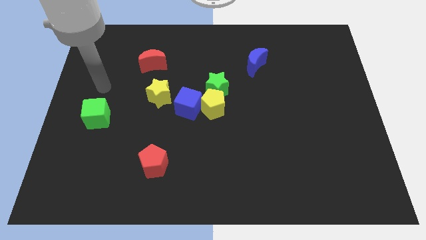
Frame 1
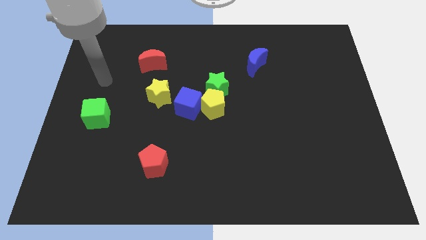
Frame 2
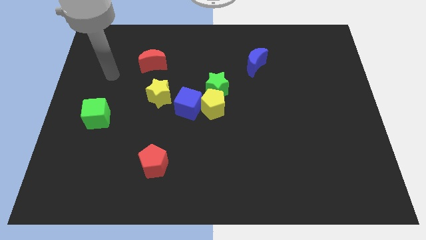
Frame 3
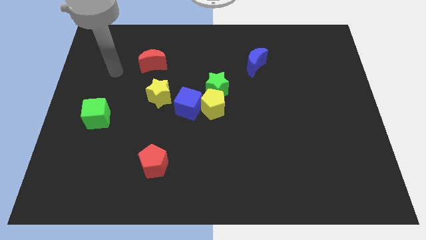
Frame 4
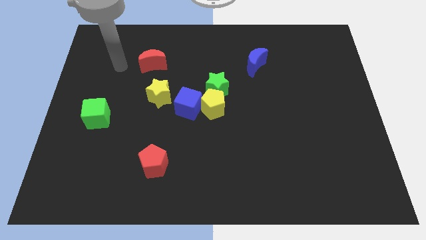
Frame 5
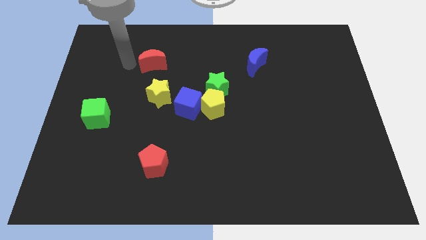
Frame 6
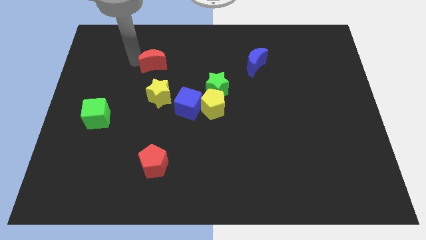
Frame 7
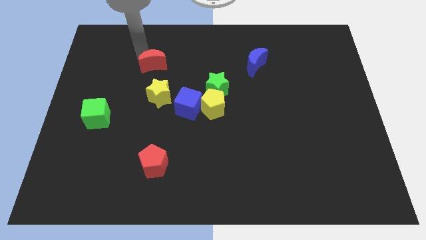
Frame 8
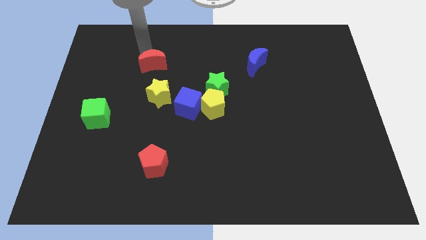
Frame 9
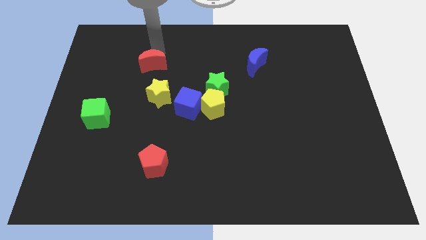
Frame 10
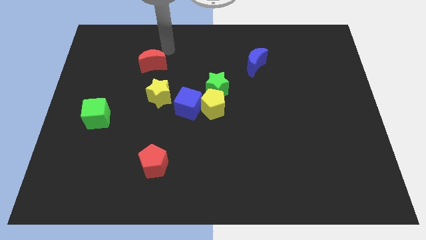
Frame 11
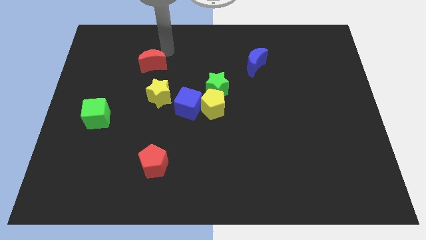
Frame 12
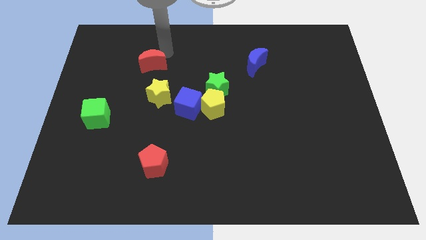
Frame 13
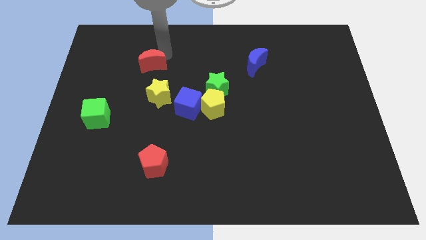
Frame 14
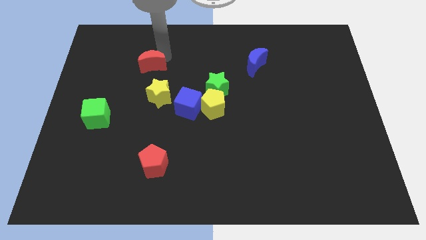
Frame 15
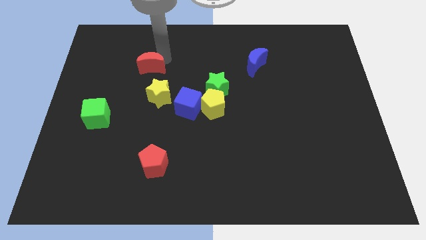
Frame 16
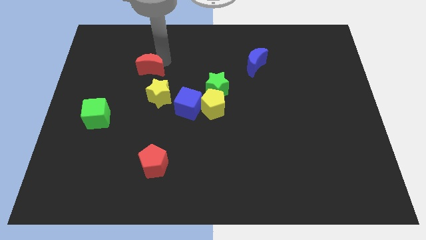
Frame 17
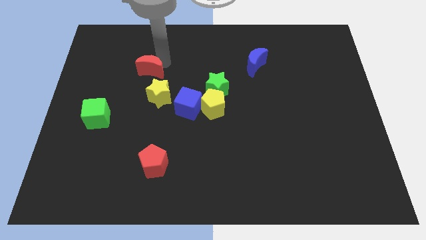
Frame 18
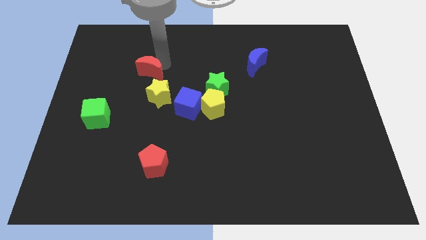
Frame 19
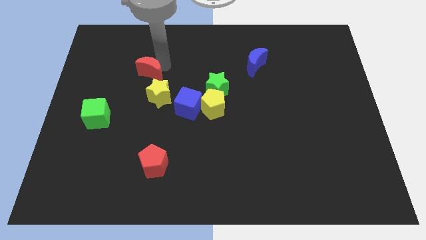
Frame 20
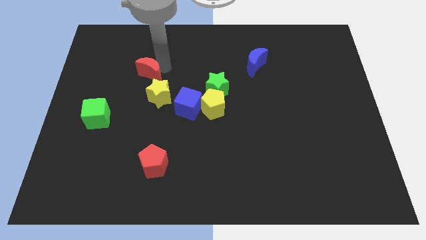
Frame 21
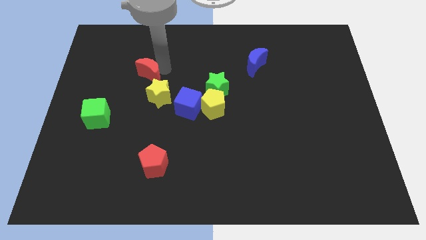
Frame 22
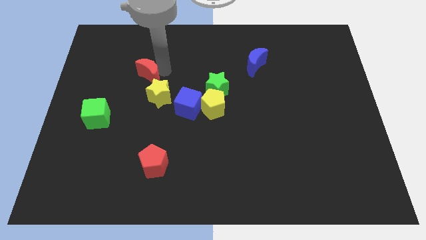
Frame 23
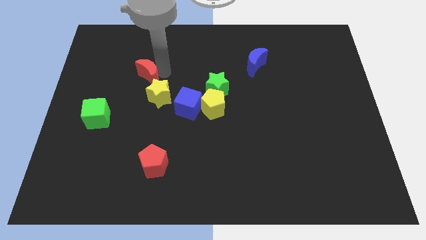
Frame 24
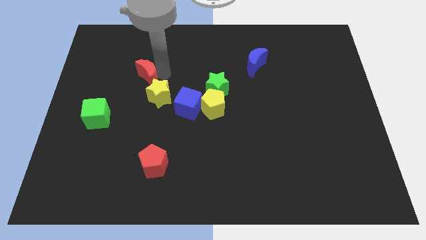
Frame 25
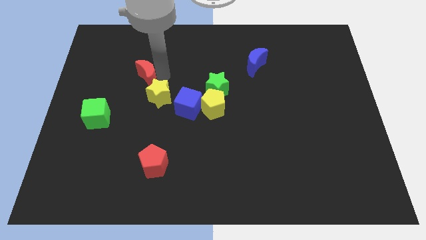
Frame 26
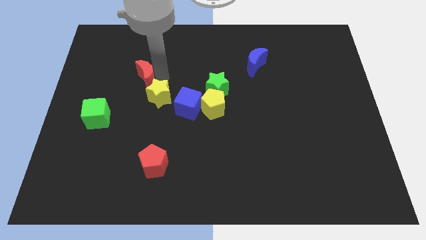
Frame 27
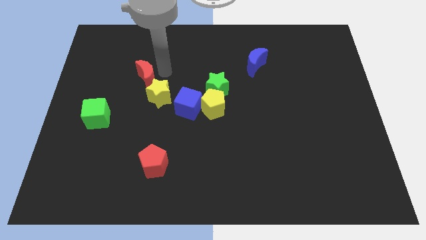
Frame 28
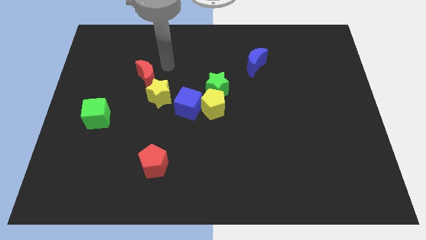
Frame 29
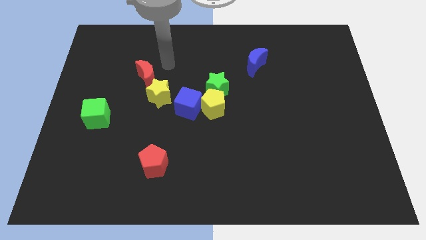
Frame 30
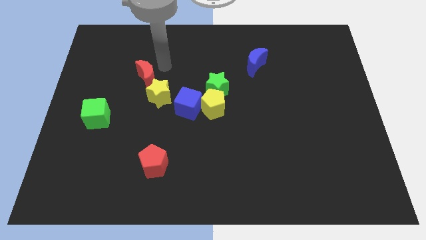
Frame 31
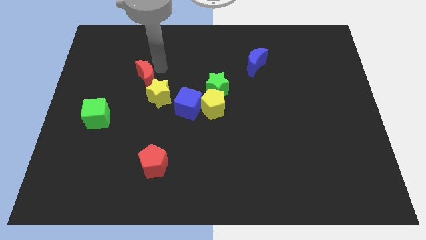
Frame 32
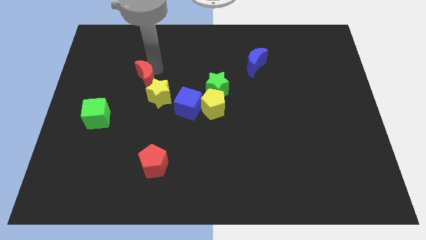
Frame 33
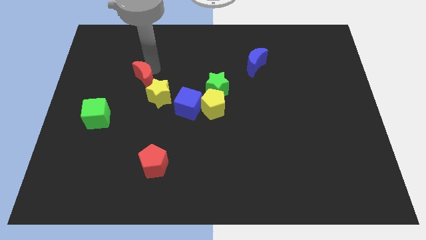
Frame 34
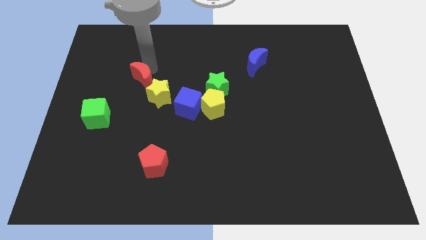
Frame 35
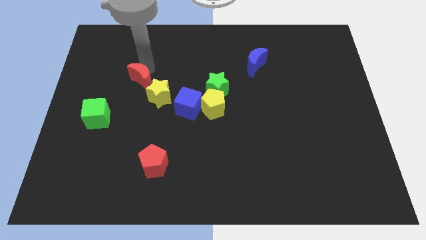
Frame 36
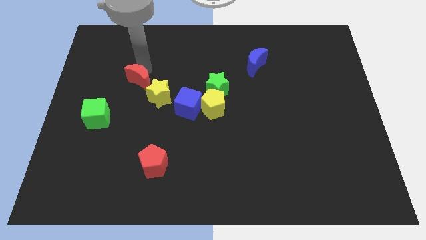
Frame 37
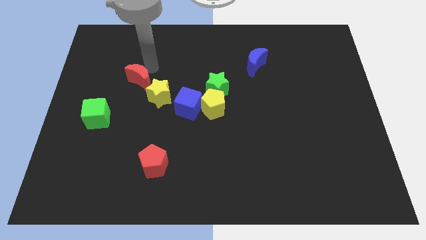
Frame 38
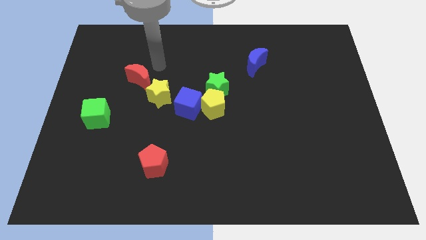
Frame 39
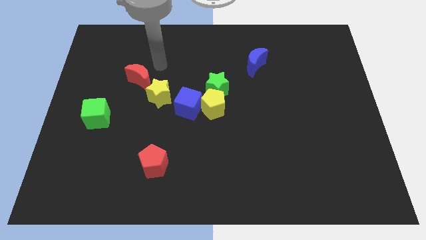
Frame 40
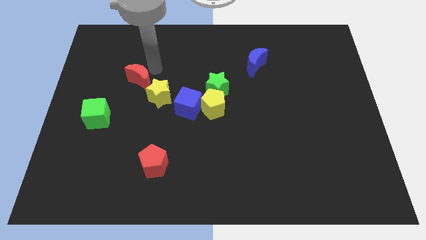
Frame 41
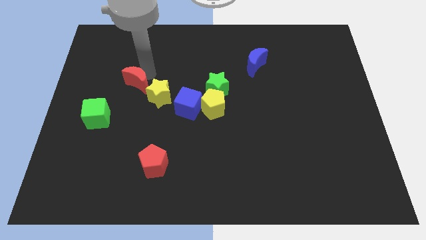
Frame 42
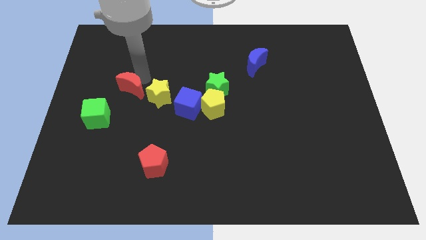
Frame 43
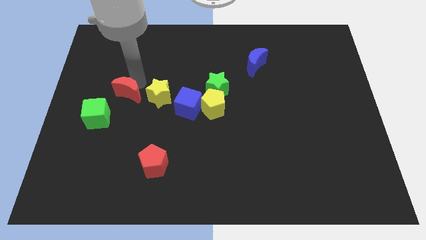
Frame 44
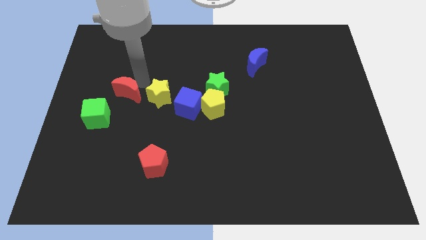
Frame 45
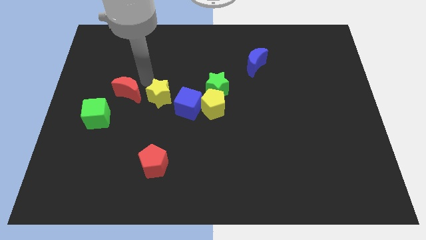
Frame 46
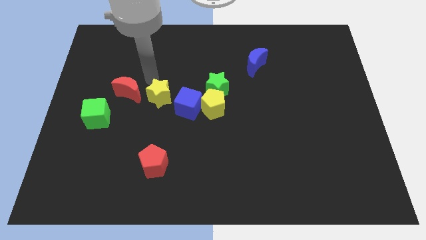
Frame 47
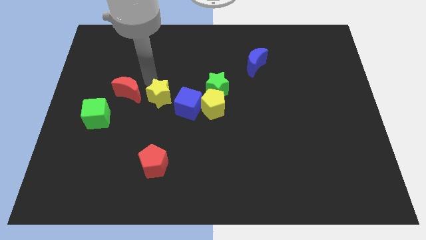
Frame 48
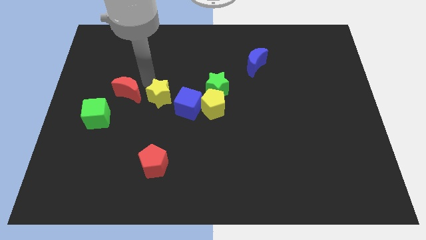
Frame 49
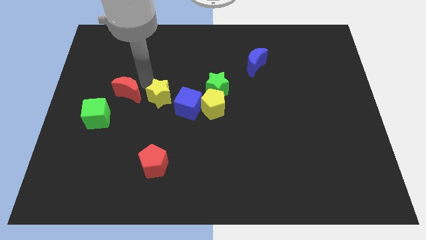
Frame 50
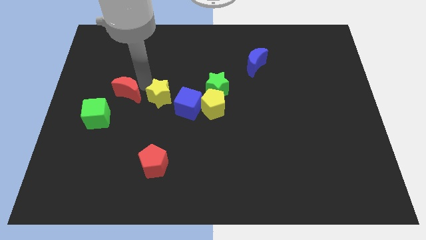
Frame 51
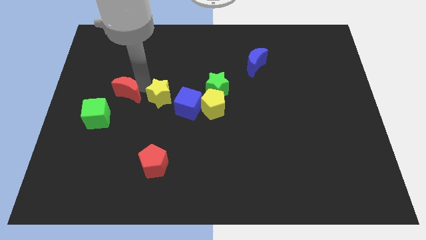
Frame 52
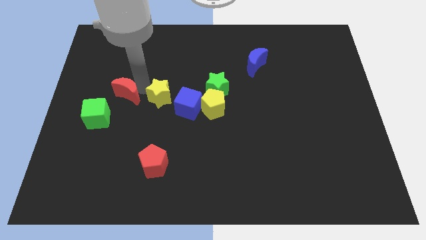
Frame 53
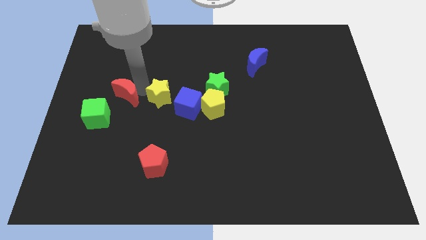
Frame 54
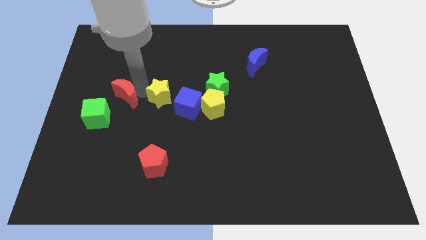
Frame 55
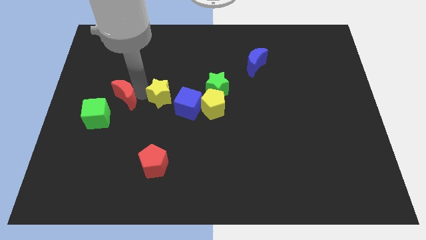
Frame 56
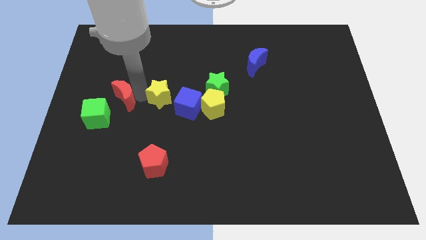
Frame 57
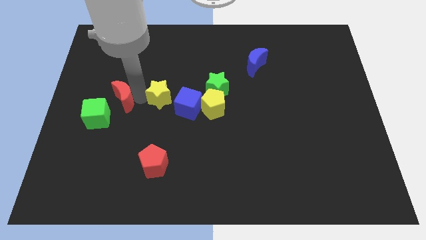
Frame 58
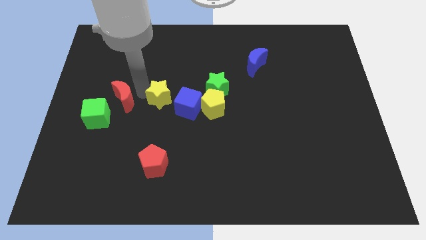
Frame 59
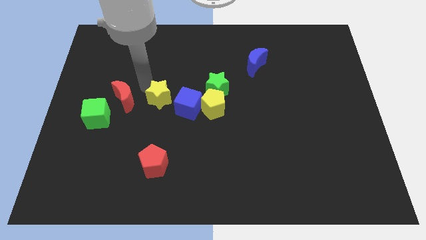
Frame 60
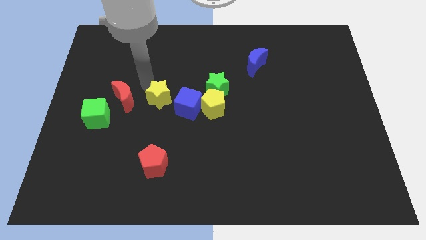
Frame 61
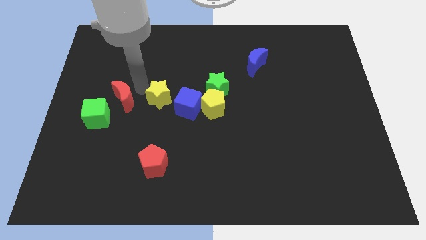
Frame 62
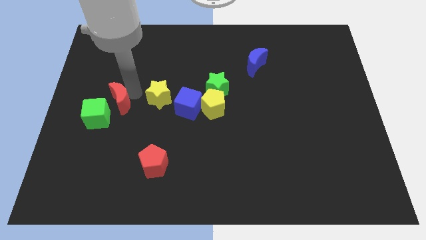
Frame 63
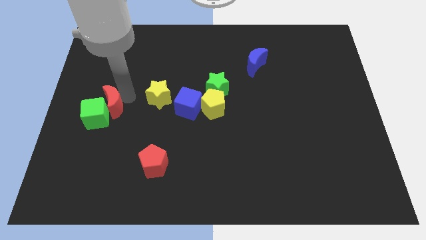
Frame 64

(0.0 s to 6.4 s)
put the red moon to the green cube
